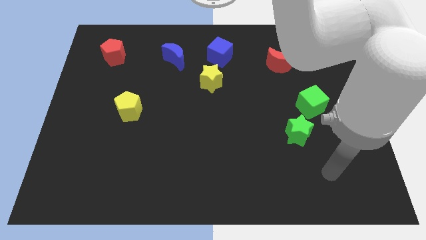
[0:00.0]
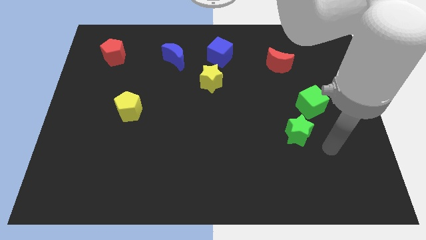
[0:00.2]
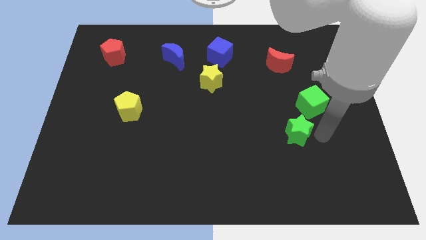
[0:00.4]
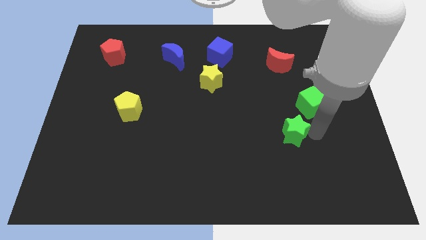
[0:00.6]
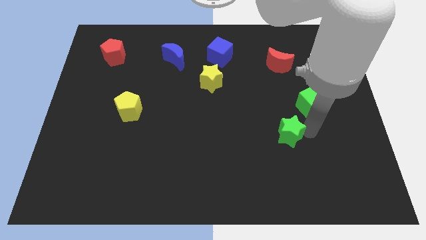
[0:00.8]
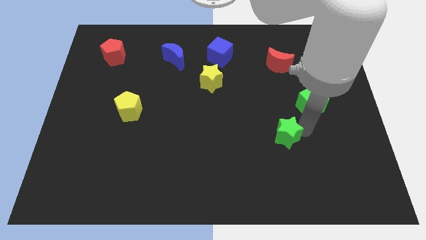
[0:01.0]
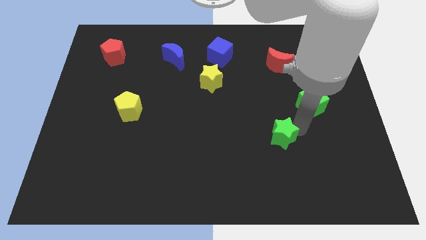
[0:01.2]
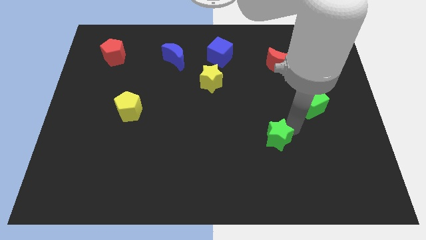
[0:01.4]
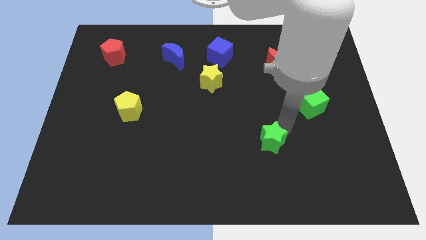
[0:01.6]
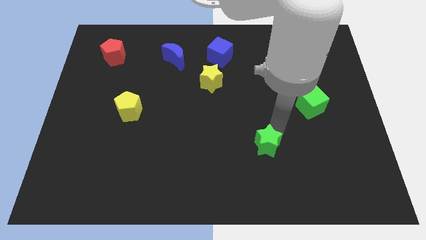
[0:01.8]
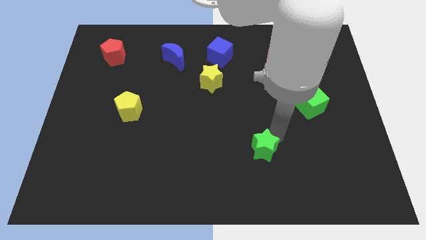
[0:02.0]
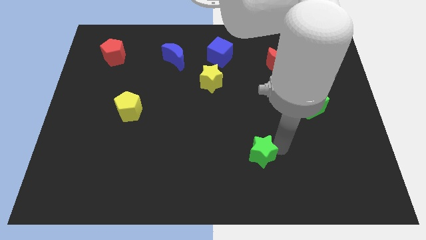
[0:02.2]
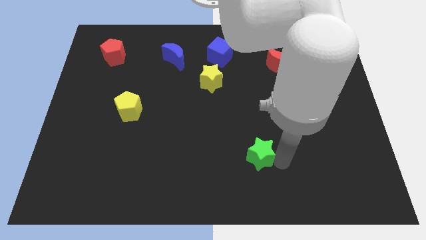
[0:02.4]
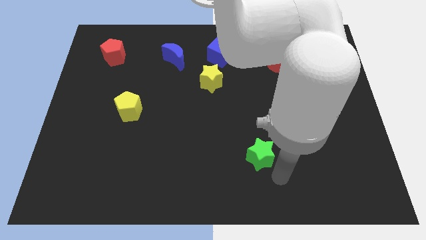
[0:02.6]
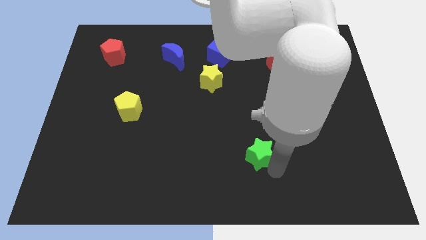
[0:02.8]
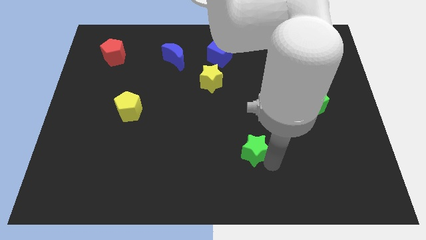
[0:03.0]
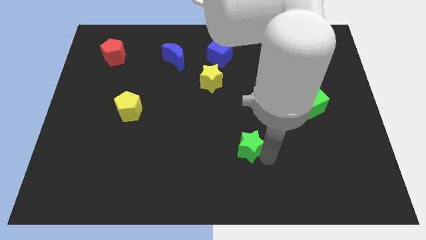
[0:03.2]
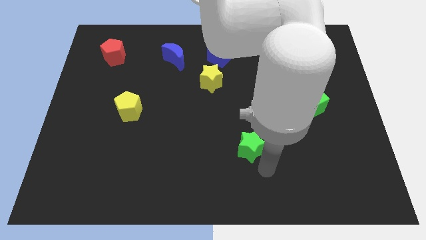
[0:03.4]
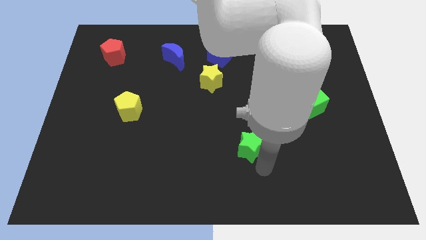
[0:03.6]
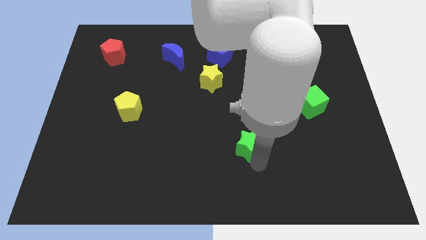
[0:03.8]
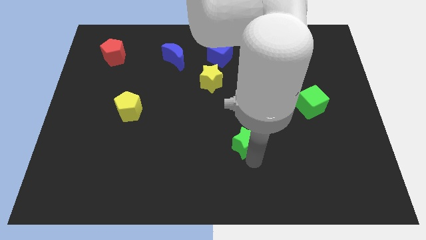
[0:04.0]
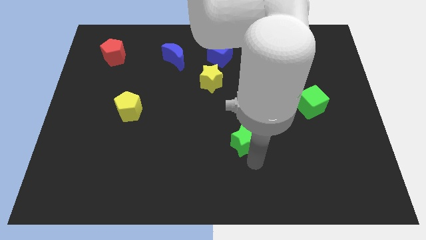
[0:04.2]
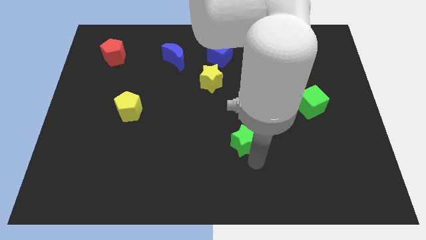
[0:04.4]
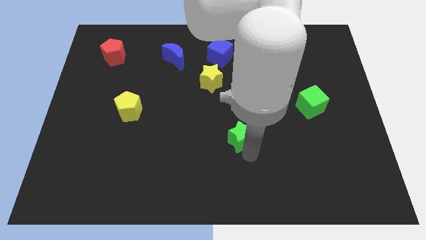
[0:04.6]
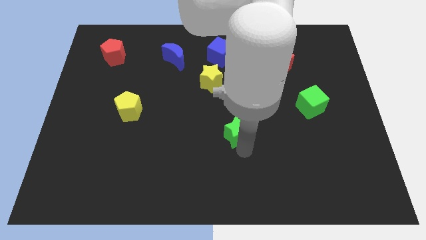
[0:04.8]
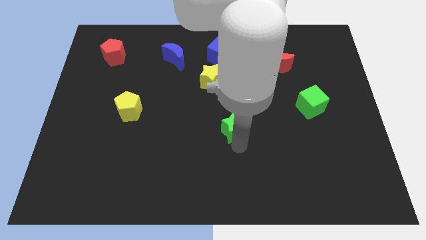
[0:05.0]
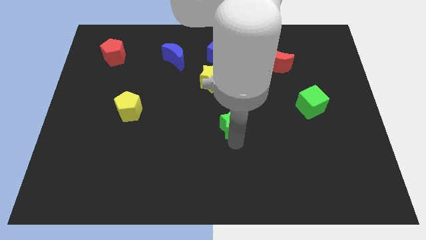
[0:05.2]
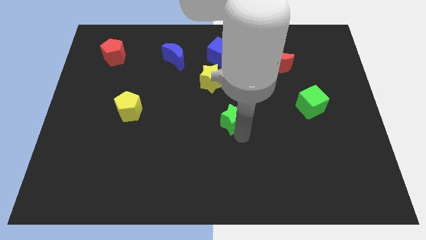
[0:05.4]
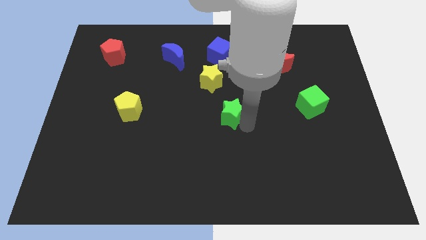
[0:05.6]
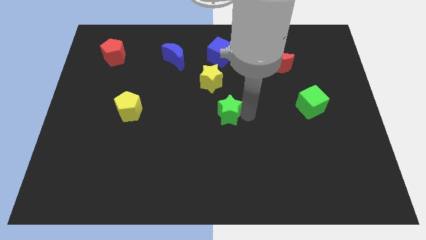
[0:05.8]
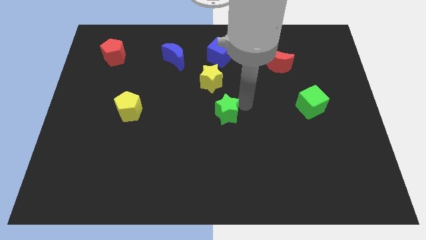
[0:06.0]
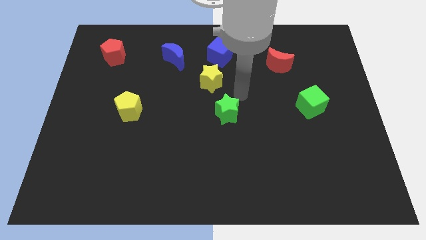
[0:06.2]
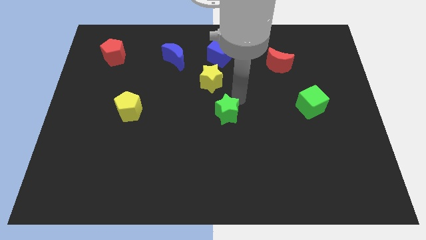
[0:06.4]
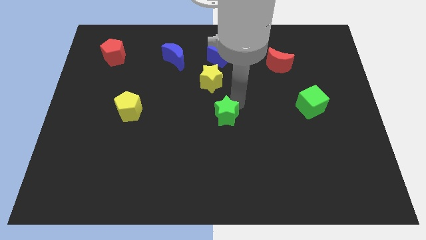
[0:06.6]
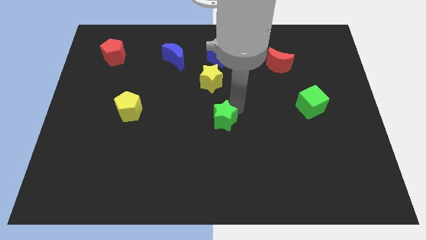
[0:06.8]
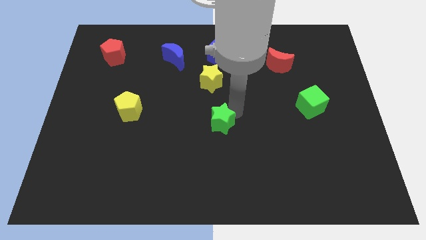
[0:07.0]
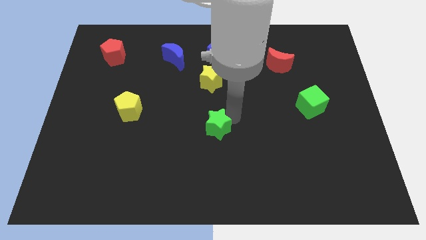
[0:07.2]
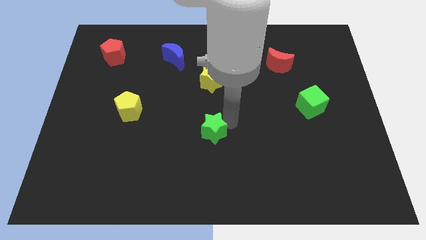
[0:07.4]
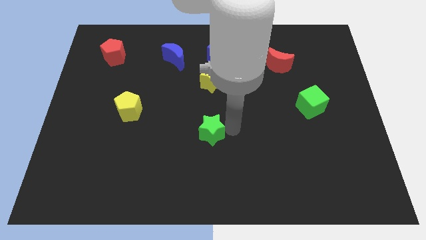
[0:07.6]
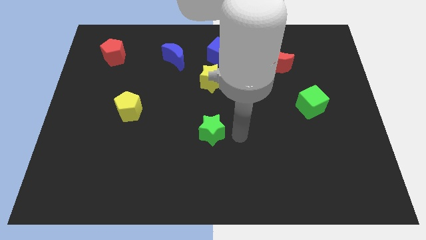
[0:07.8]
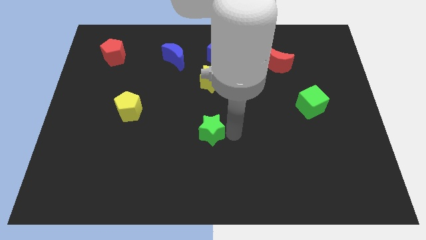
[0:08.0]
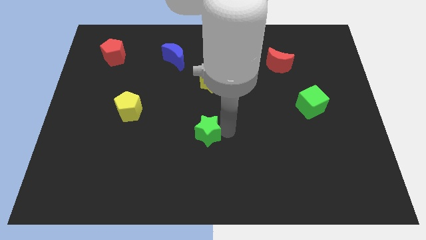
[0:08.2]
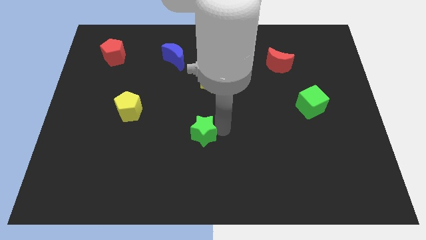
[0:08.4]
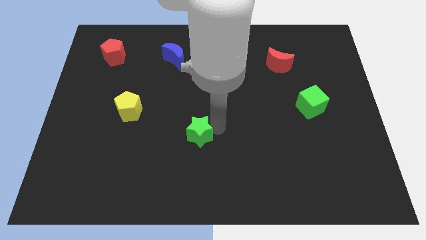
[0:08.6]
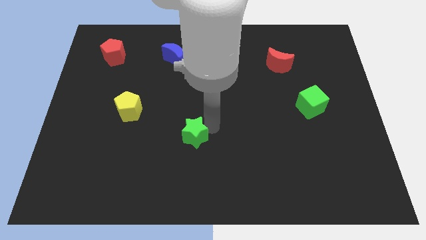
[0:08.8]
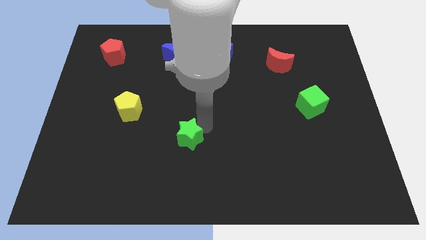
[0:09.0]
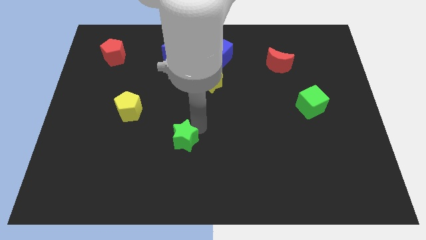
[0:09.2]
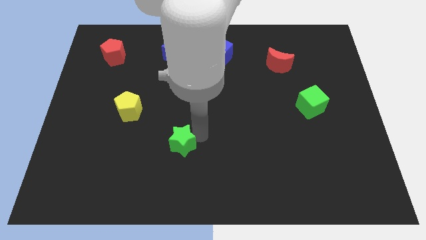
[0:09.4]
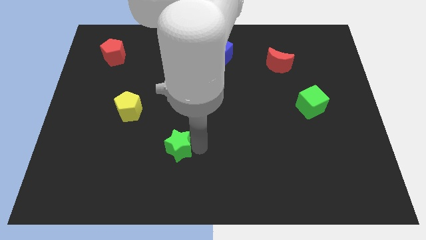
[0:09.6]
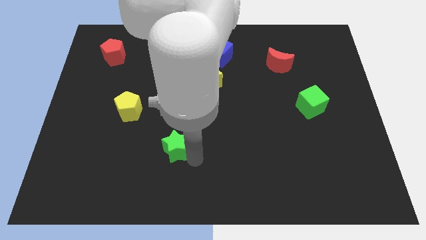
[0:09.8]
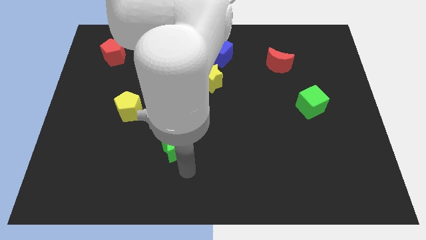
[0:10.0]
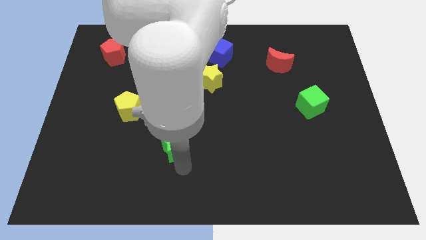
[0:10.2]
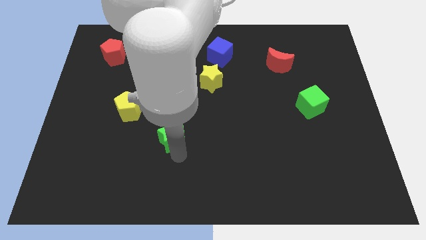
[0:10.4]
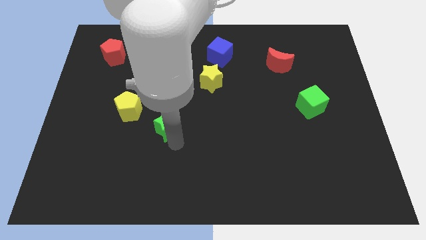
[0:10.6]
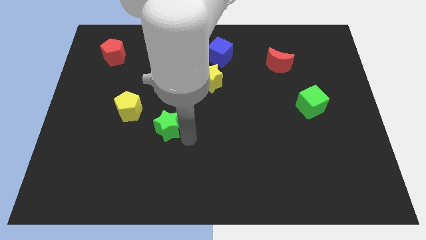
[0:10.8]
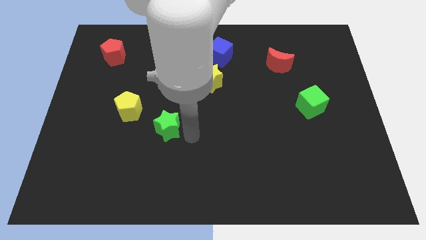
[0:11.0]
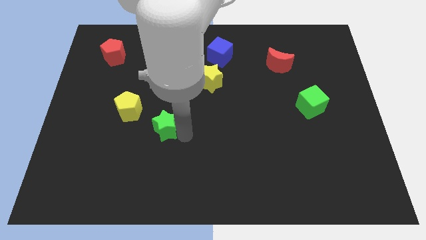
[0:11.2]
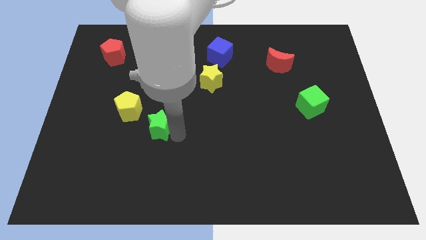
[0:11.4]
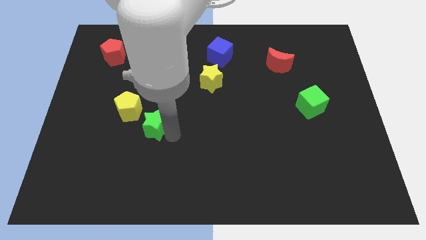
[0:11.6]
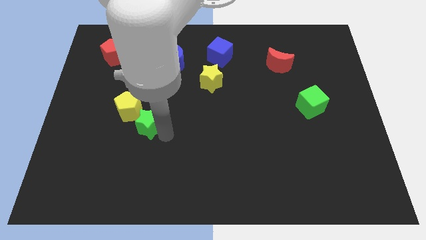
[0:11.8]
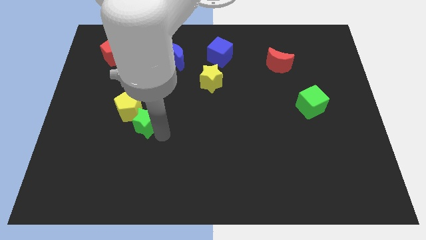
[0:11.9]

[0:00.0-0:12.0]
move the green star next to the yellow pentagon
